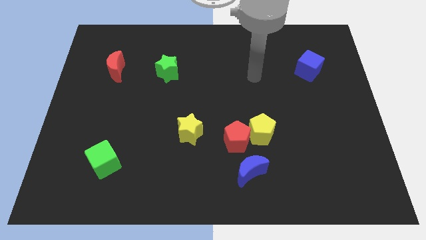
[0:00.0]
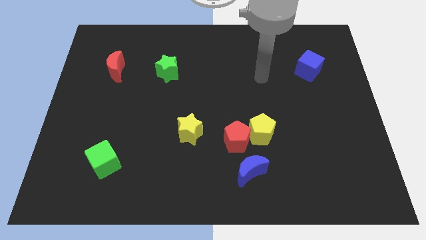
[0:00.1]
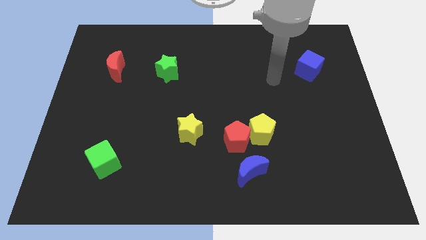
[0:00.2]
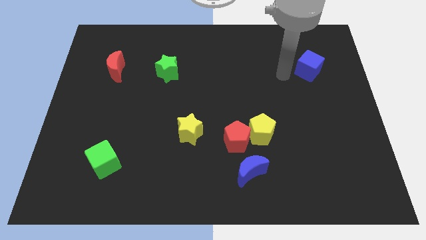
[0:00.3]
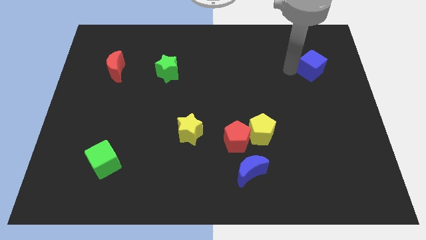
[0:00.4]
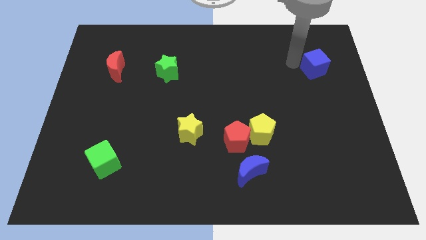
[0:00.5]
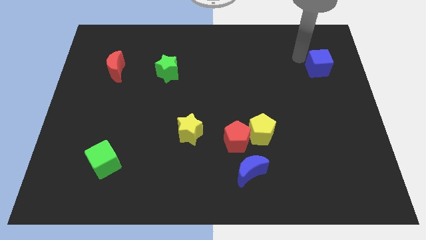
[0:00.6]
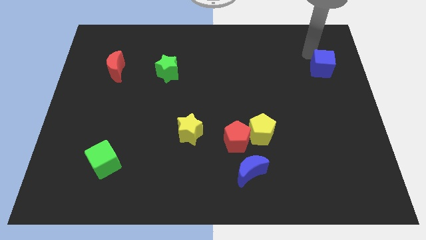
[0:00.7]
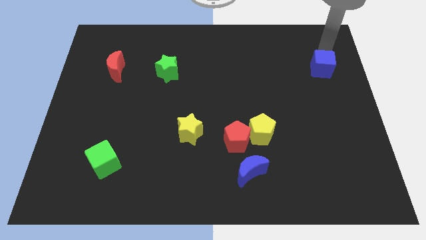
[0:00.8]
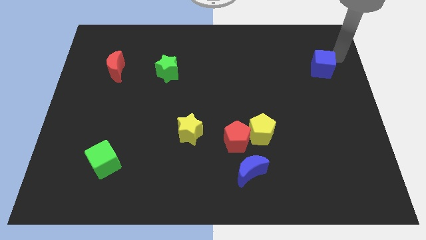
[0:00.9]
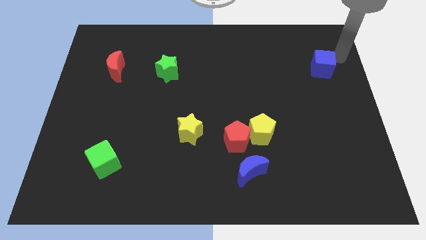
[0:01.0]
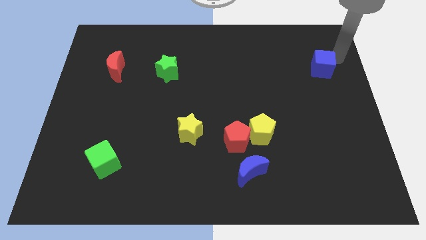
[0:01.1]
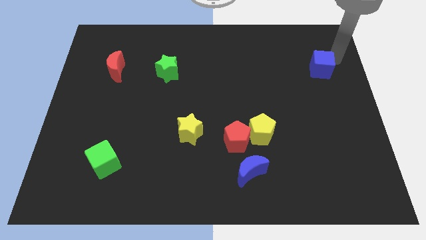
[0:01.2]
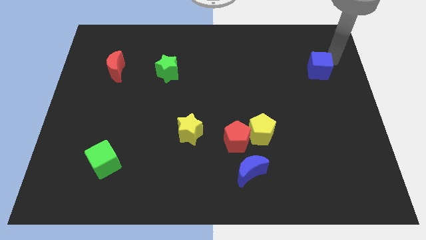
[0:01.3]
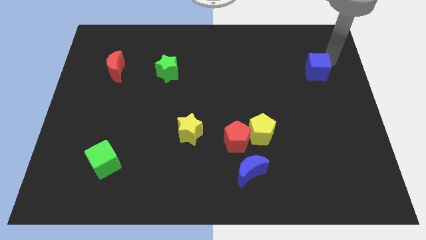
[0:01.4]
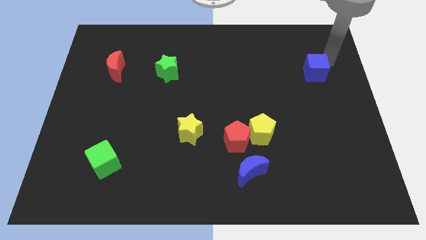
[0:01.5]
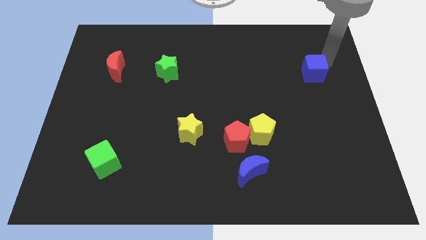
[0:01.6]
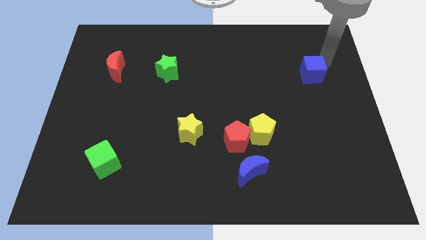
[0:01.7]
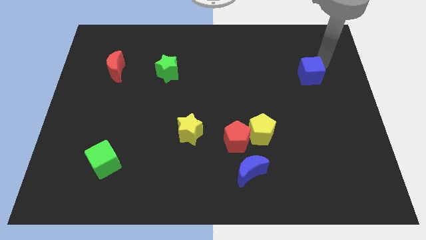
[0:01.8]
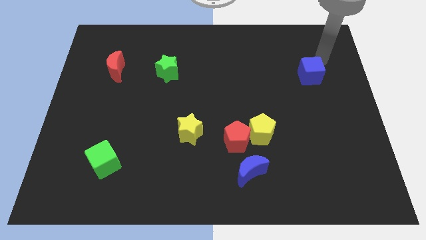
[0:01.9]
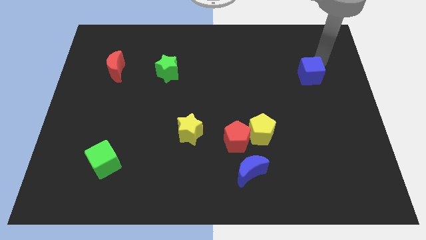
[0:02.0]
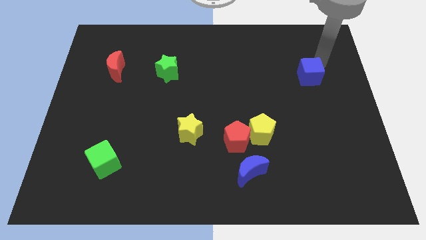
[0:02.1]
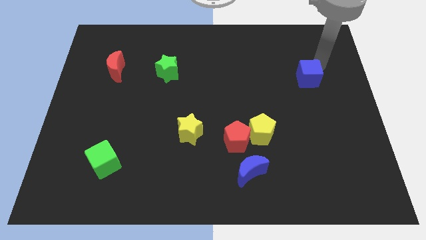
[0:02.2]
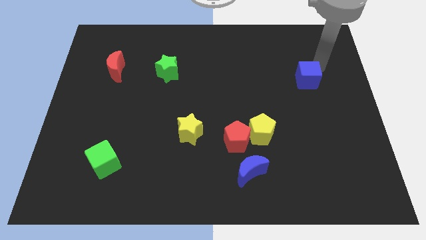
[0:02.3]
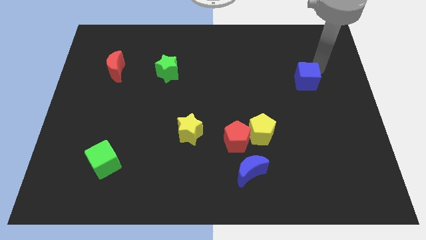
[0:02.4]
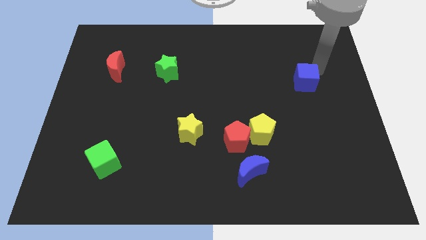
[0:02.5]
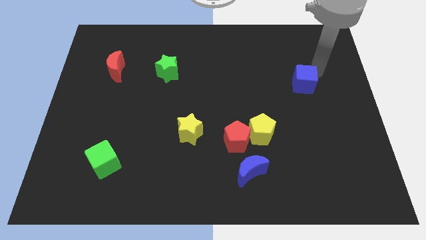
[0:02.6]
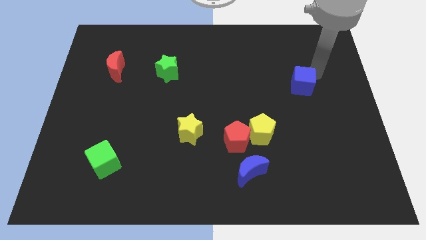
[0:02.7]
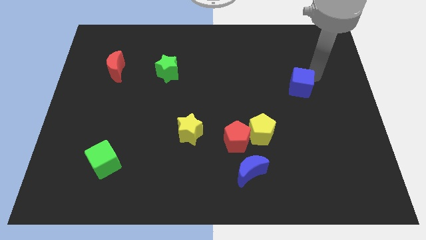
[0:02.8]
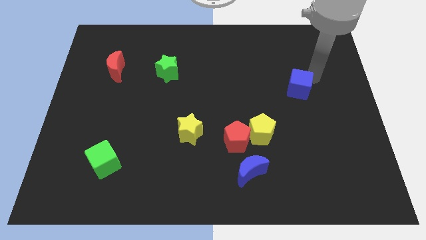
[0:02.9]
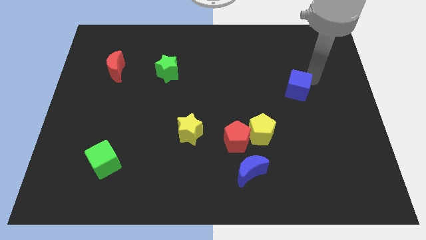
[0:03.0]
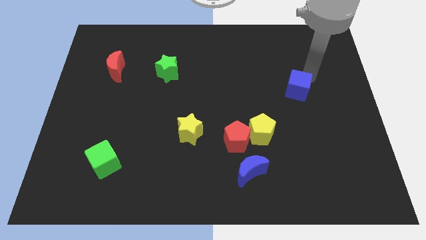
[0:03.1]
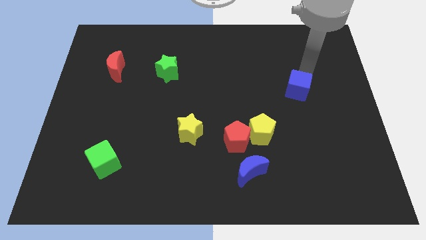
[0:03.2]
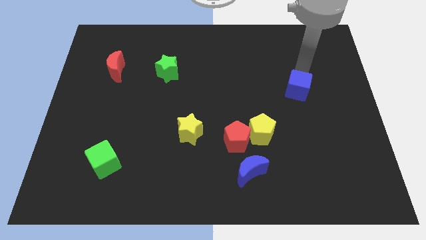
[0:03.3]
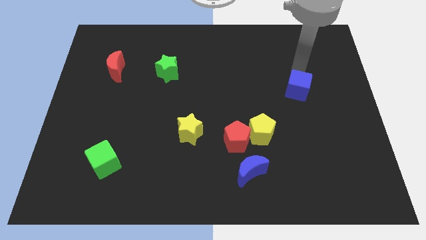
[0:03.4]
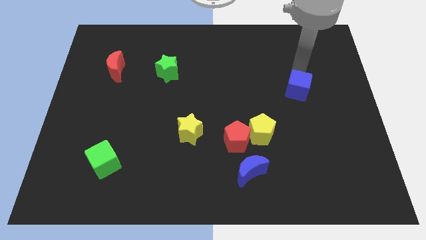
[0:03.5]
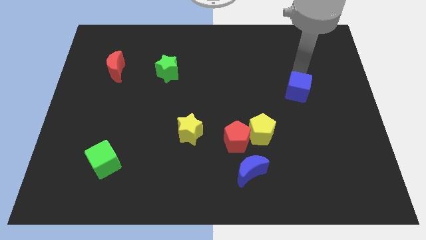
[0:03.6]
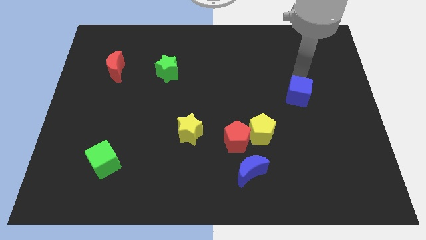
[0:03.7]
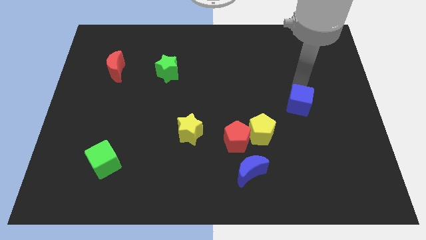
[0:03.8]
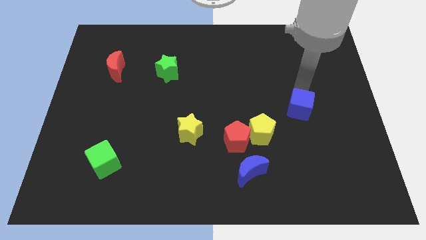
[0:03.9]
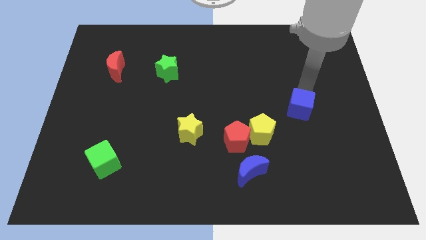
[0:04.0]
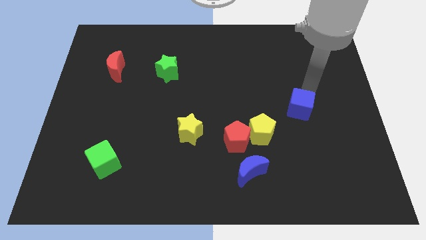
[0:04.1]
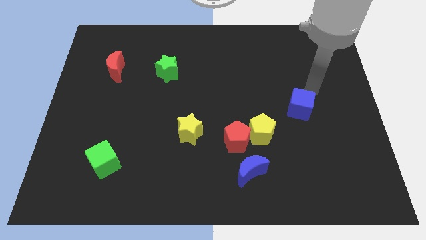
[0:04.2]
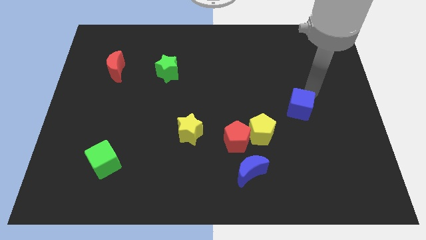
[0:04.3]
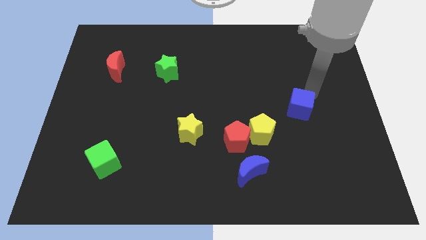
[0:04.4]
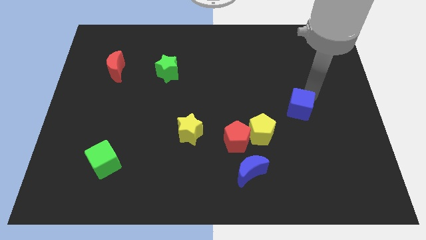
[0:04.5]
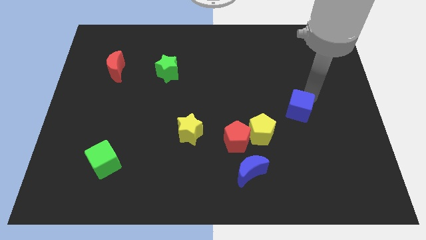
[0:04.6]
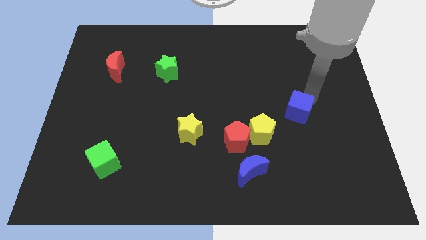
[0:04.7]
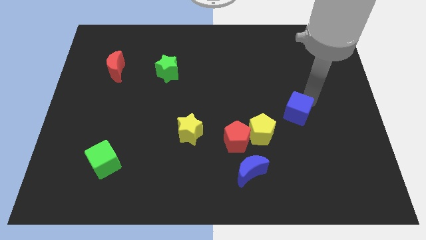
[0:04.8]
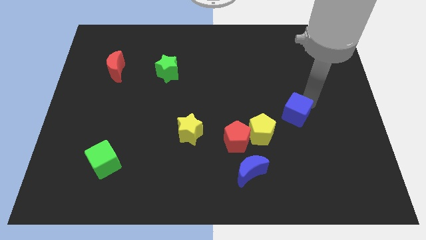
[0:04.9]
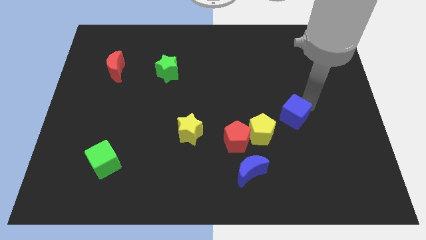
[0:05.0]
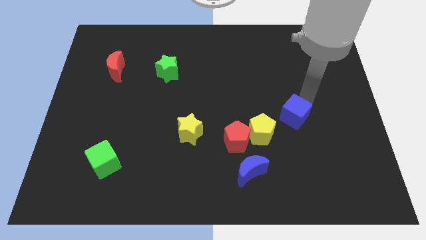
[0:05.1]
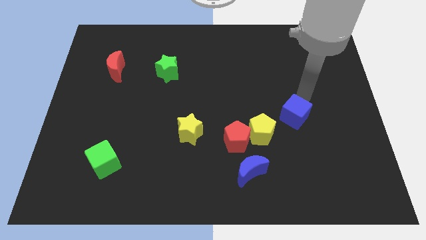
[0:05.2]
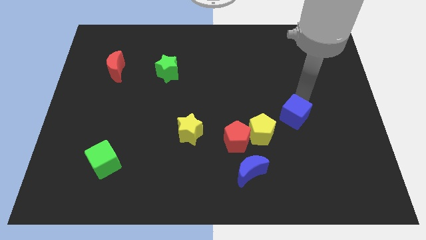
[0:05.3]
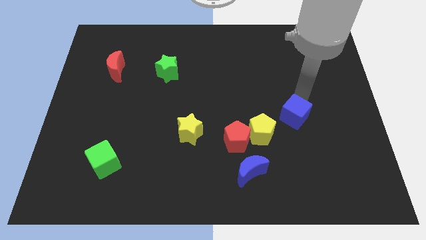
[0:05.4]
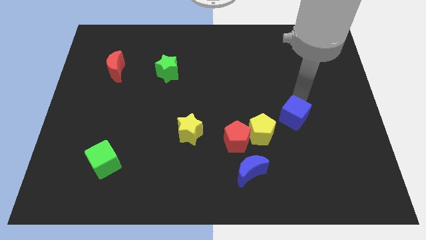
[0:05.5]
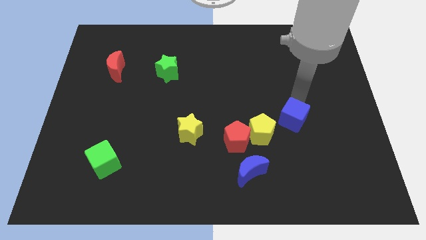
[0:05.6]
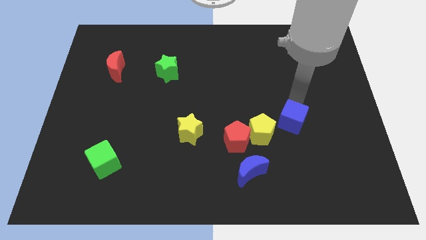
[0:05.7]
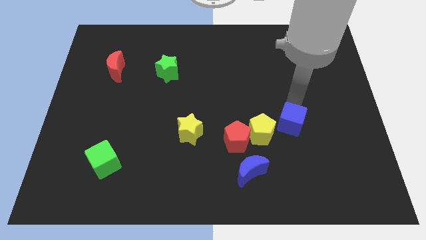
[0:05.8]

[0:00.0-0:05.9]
put the blue cube just right of the red pentagon

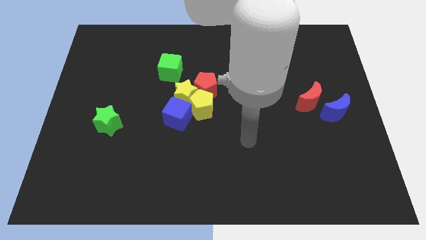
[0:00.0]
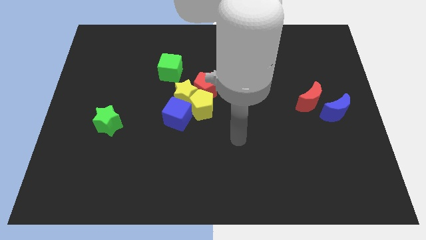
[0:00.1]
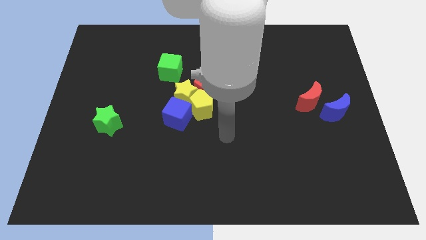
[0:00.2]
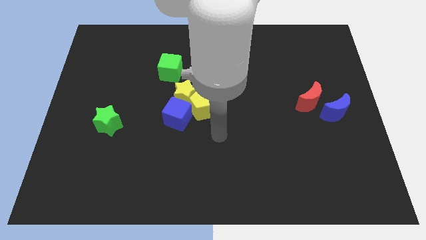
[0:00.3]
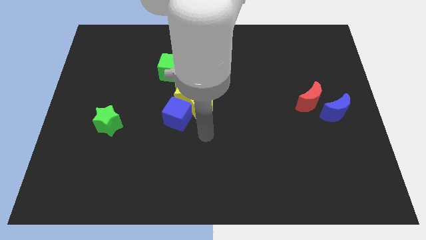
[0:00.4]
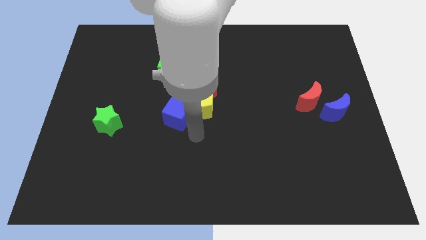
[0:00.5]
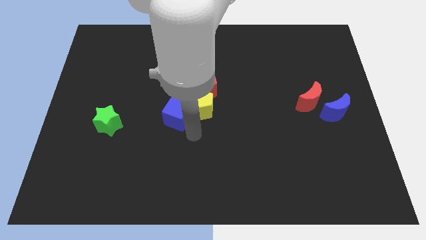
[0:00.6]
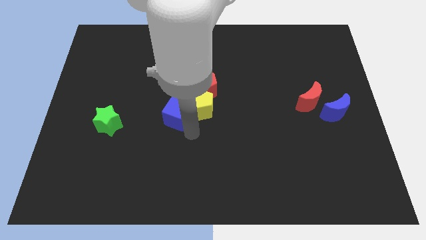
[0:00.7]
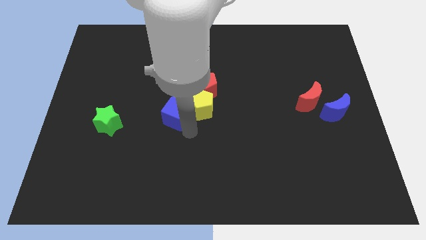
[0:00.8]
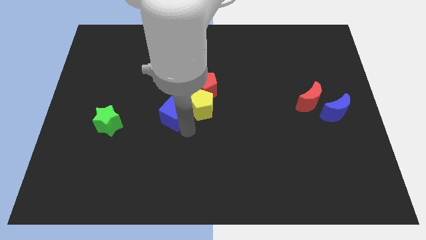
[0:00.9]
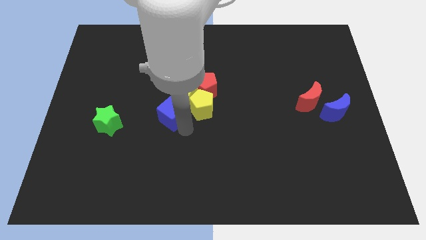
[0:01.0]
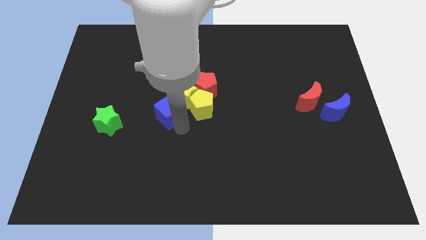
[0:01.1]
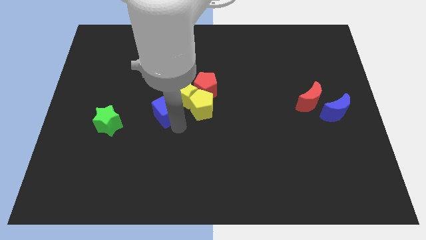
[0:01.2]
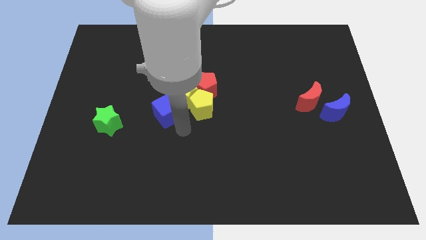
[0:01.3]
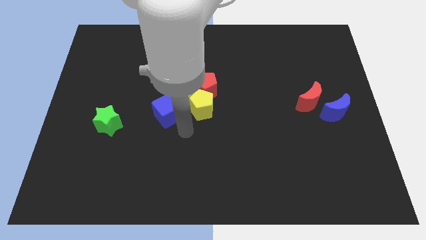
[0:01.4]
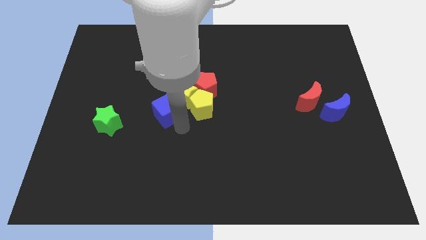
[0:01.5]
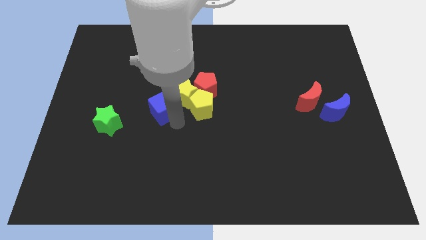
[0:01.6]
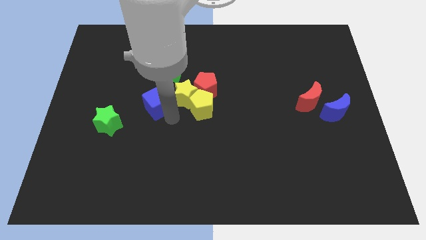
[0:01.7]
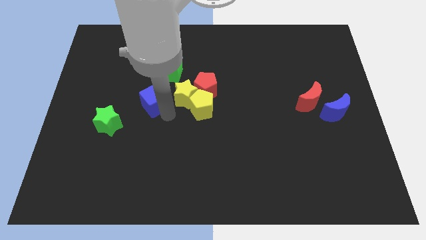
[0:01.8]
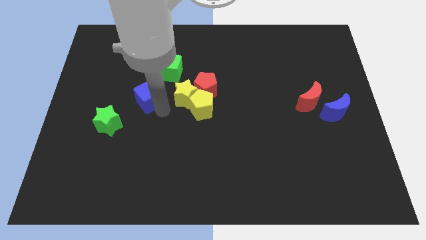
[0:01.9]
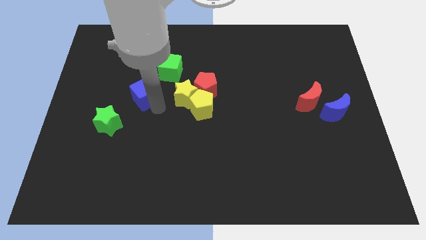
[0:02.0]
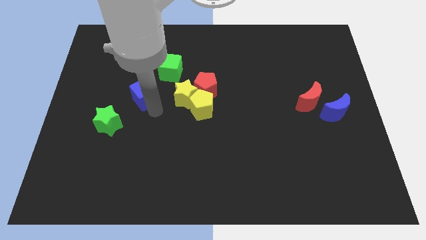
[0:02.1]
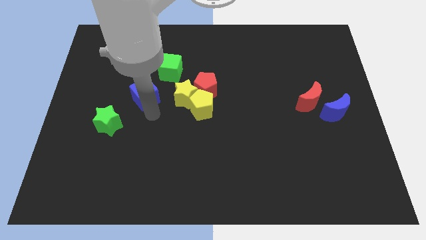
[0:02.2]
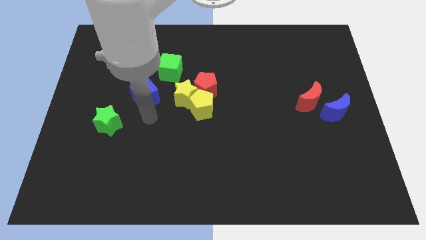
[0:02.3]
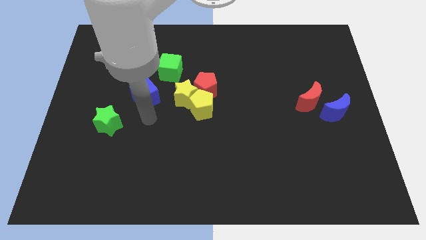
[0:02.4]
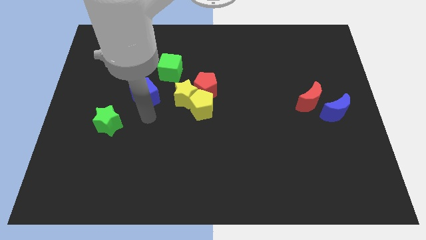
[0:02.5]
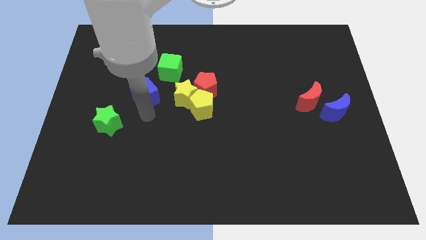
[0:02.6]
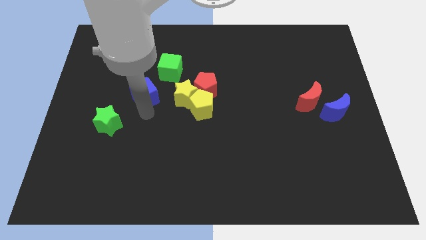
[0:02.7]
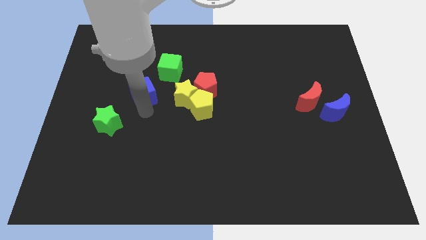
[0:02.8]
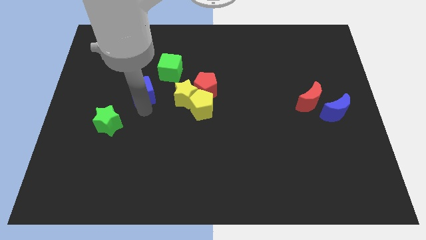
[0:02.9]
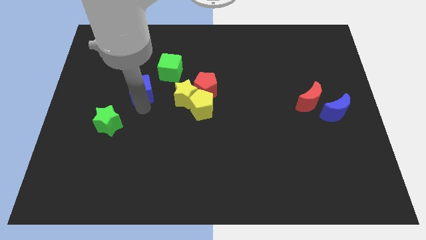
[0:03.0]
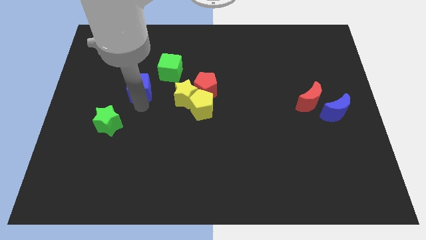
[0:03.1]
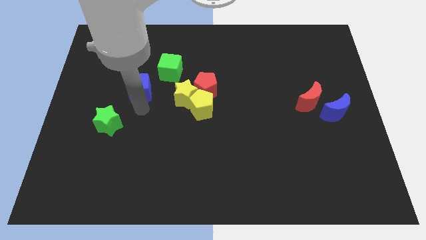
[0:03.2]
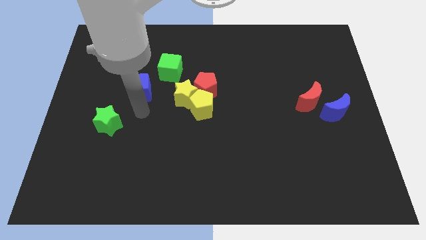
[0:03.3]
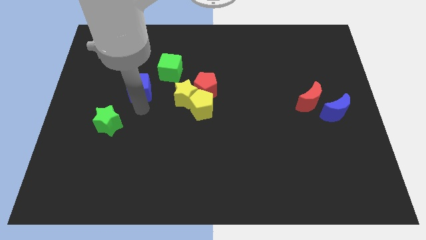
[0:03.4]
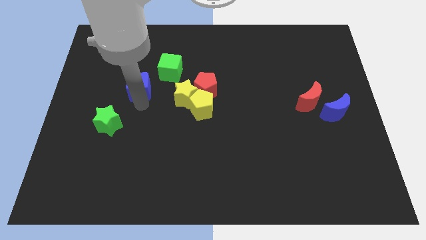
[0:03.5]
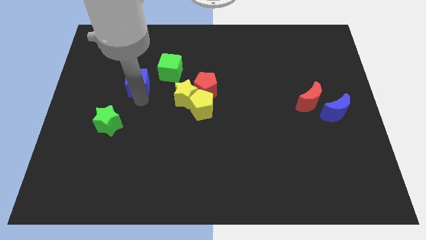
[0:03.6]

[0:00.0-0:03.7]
move the blue cube to the left side of the green cube
